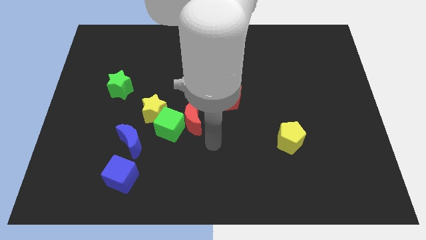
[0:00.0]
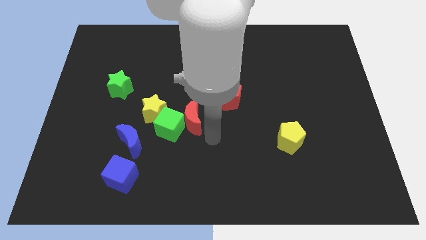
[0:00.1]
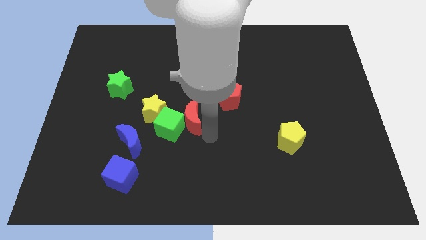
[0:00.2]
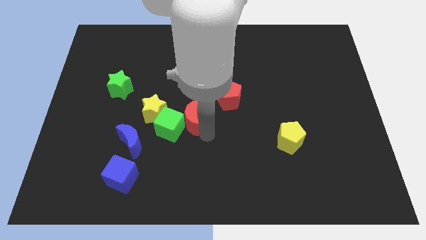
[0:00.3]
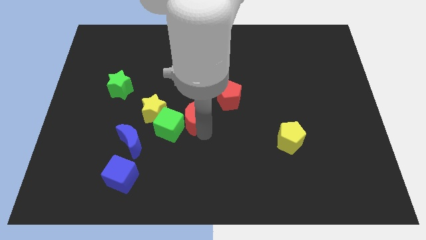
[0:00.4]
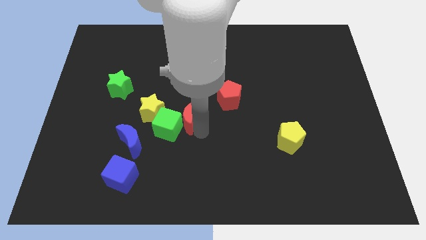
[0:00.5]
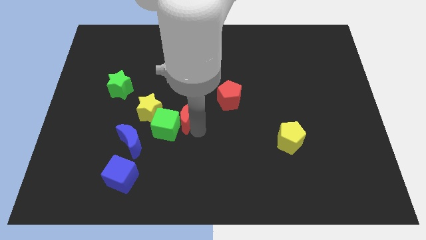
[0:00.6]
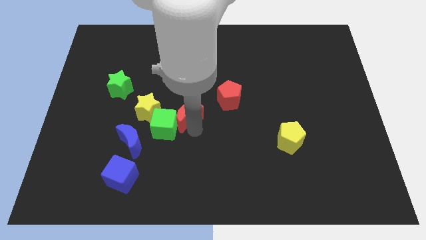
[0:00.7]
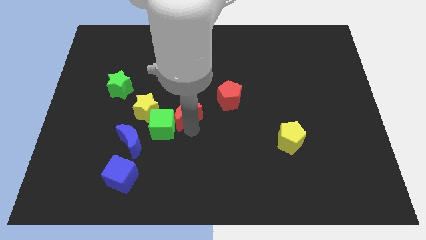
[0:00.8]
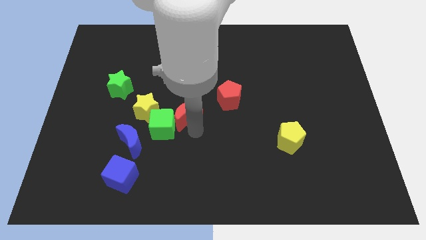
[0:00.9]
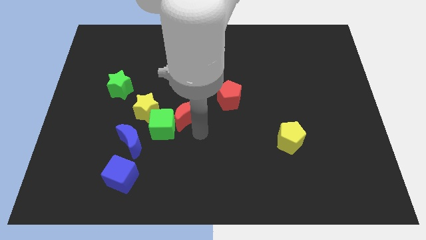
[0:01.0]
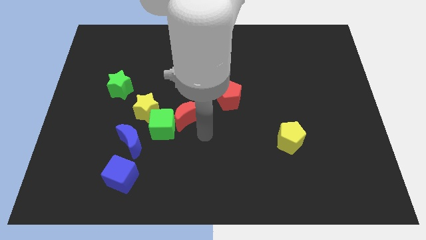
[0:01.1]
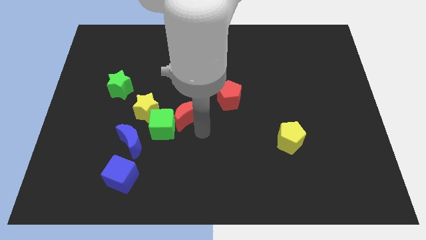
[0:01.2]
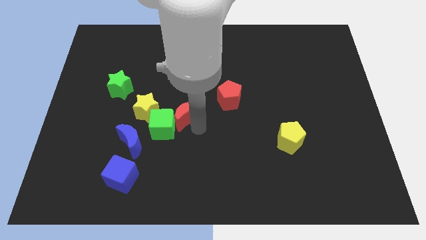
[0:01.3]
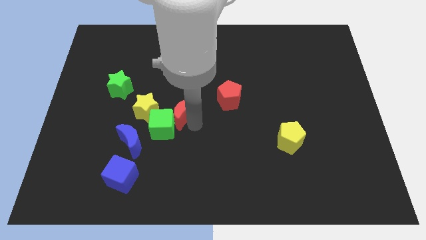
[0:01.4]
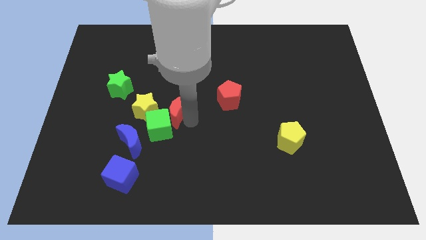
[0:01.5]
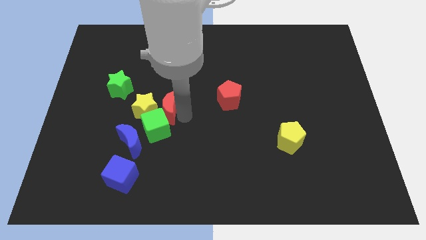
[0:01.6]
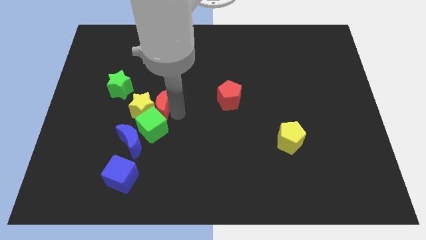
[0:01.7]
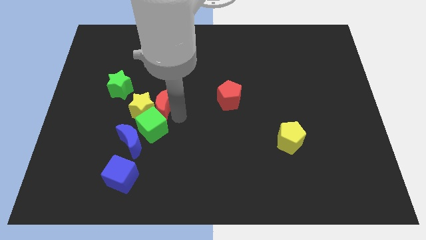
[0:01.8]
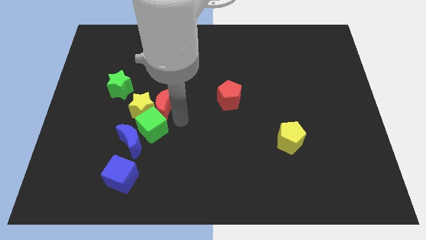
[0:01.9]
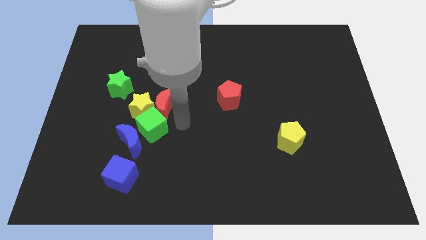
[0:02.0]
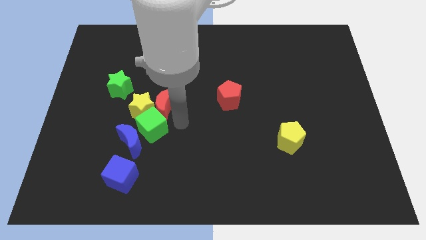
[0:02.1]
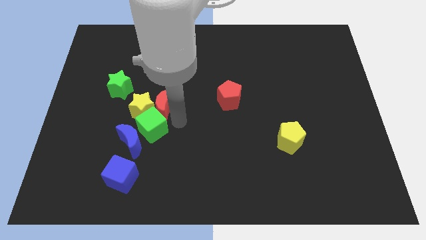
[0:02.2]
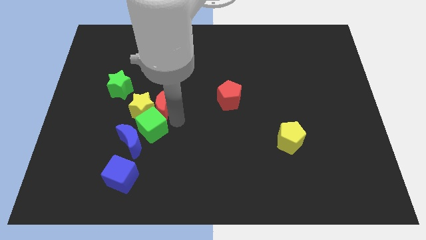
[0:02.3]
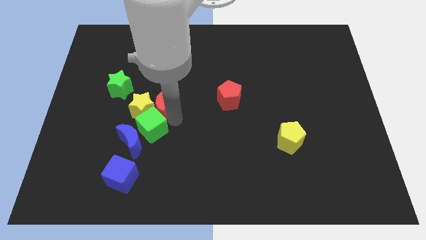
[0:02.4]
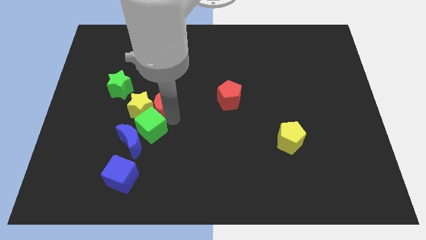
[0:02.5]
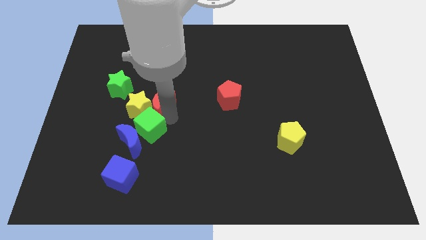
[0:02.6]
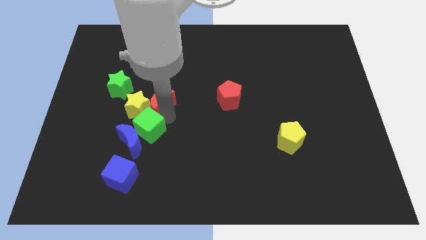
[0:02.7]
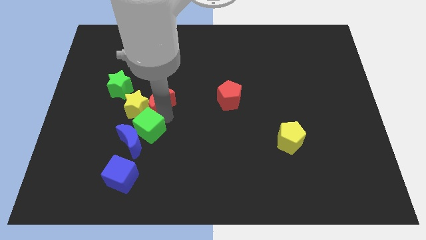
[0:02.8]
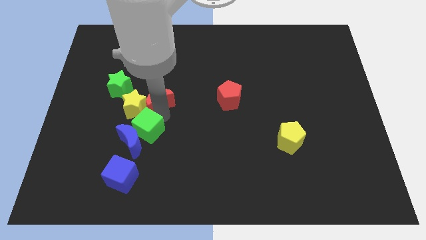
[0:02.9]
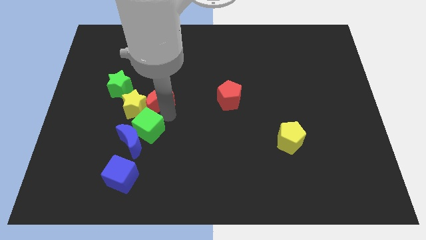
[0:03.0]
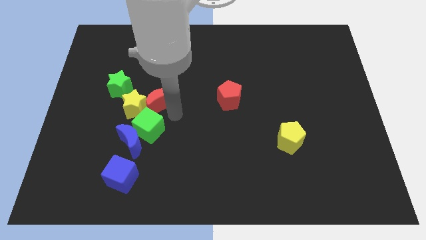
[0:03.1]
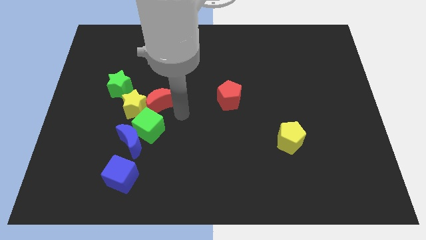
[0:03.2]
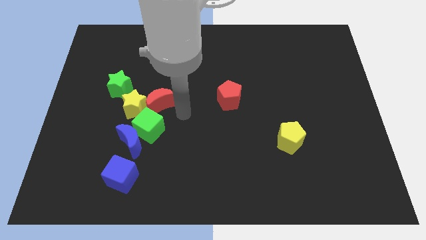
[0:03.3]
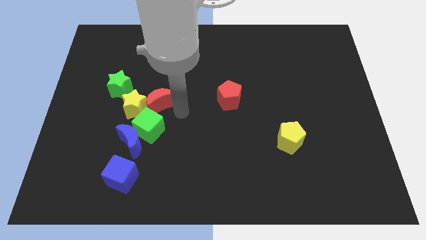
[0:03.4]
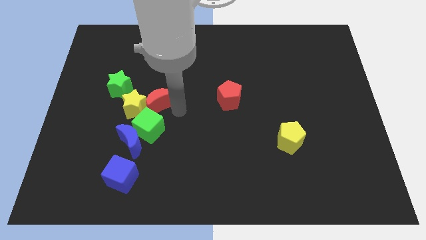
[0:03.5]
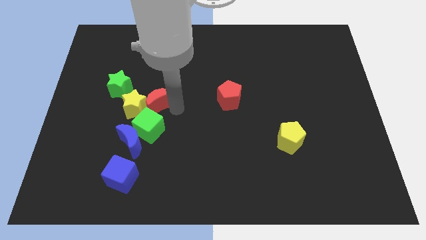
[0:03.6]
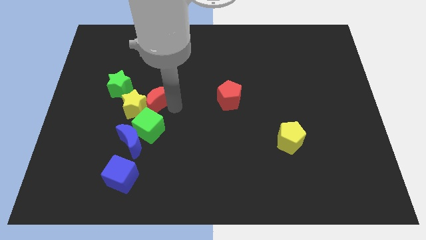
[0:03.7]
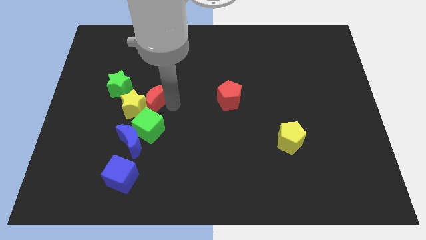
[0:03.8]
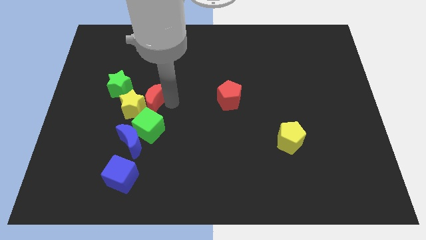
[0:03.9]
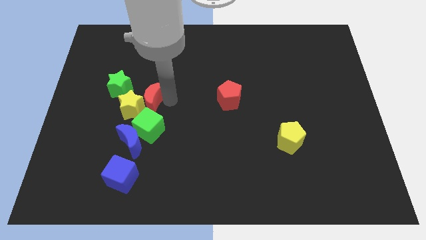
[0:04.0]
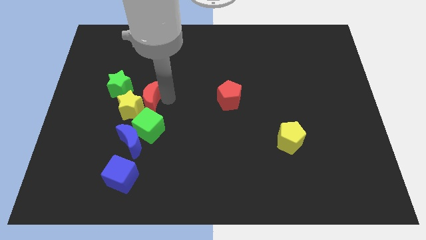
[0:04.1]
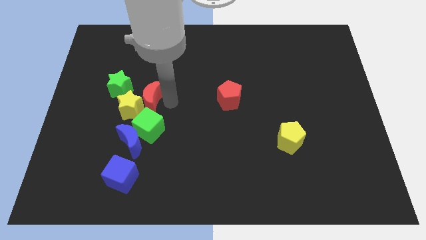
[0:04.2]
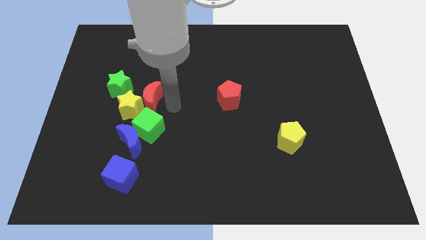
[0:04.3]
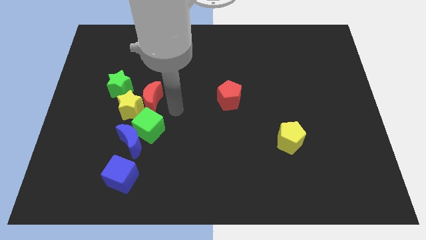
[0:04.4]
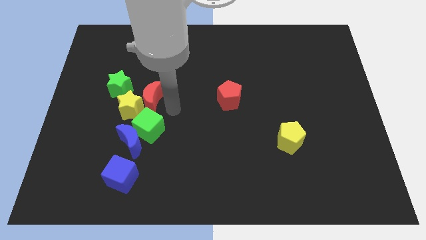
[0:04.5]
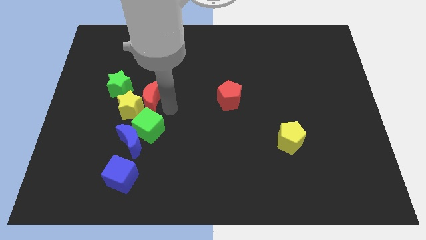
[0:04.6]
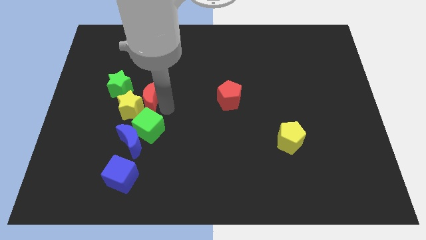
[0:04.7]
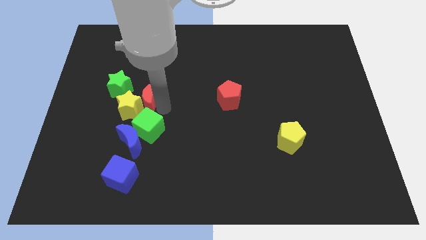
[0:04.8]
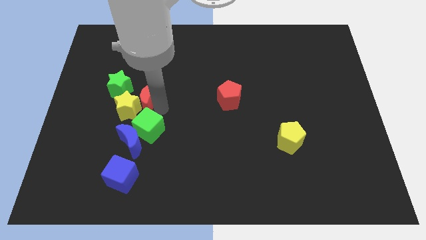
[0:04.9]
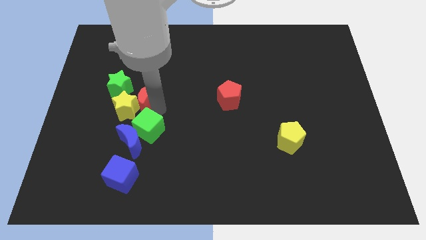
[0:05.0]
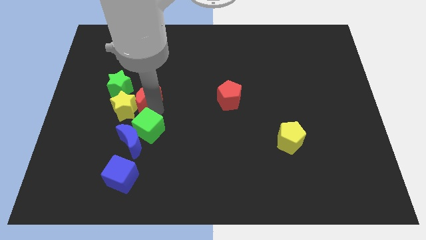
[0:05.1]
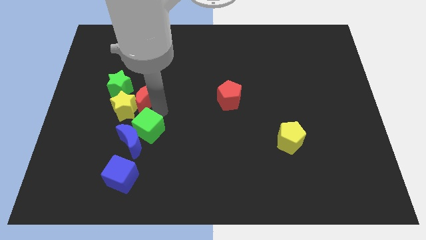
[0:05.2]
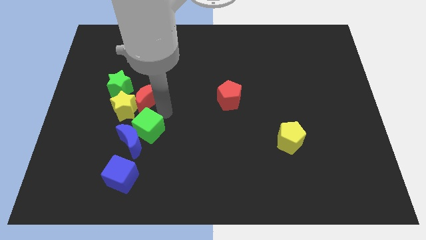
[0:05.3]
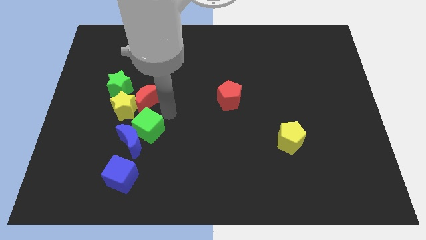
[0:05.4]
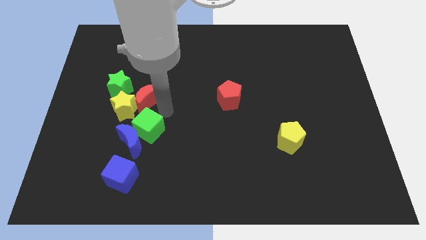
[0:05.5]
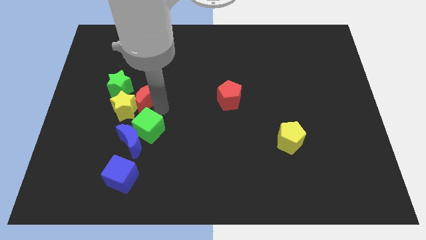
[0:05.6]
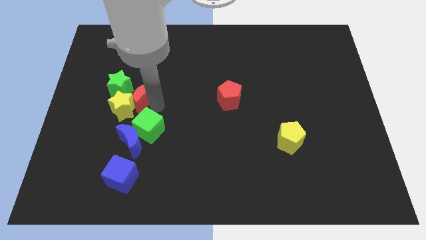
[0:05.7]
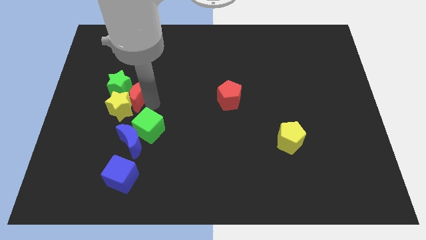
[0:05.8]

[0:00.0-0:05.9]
put the red moon close to the green star

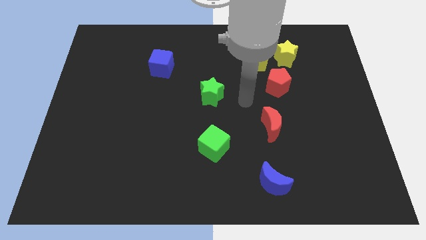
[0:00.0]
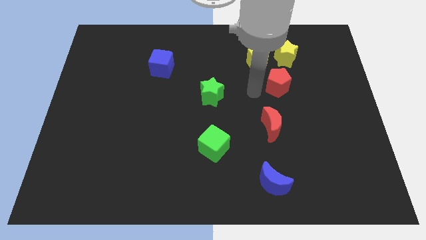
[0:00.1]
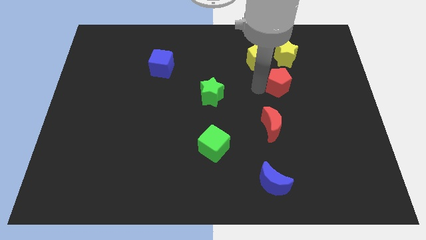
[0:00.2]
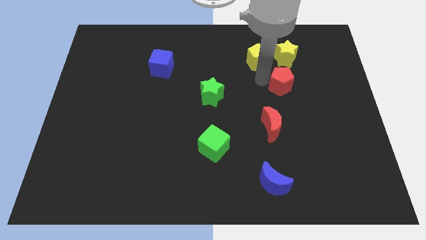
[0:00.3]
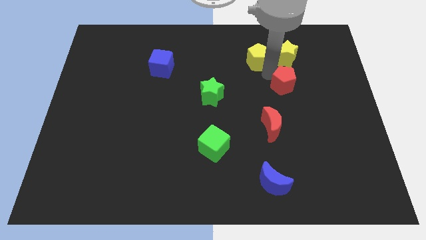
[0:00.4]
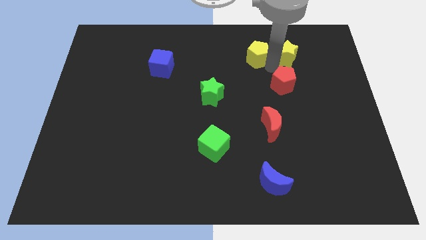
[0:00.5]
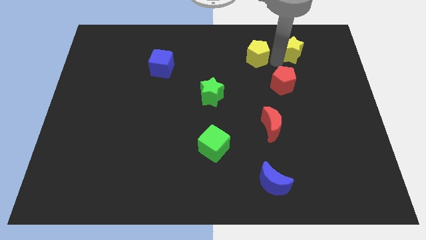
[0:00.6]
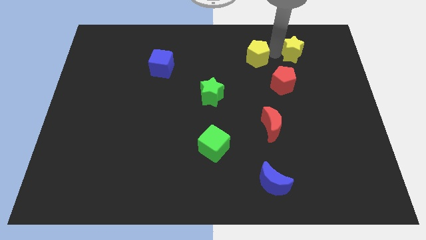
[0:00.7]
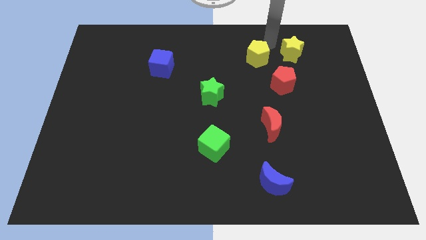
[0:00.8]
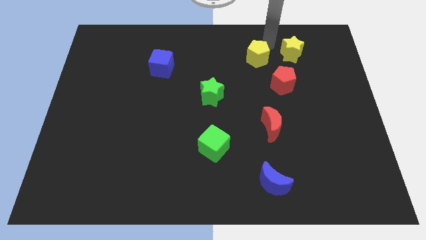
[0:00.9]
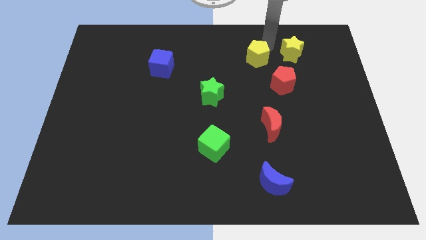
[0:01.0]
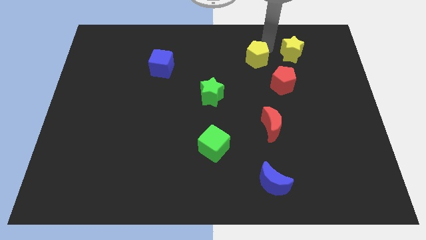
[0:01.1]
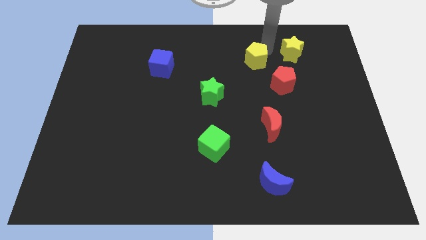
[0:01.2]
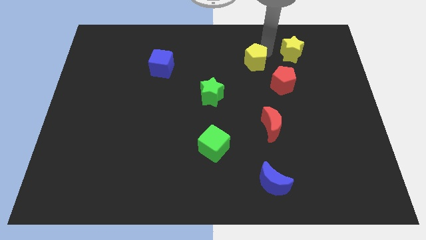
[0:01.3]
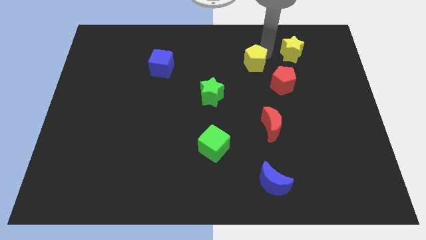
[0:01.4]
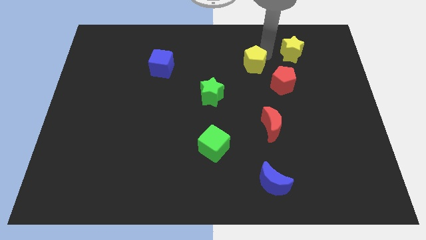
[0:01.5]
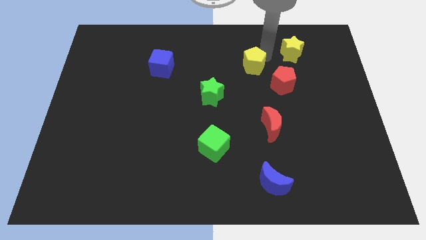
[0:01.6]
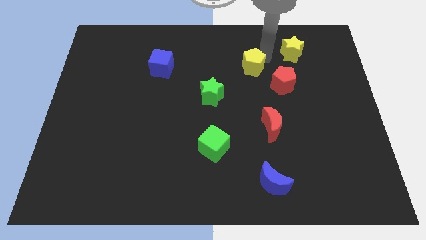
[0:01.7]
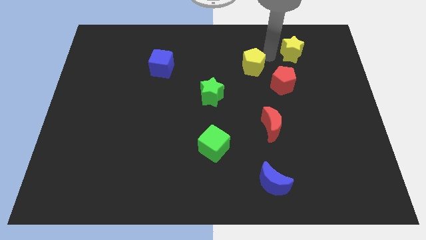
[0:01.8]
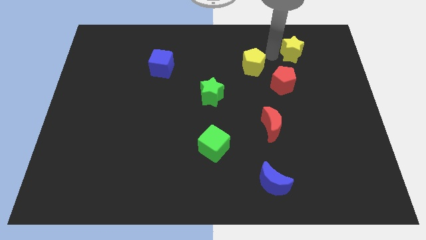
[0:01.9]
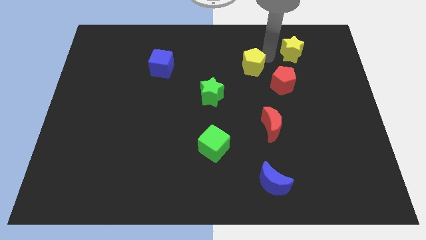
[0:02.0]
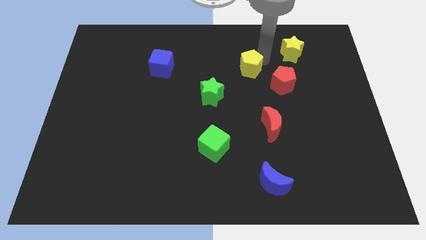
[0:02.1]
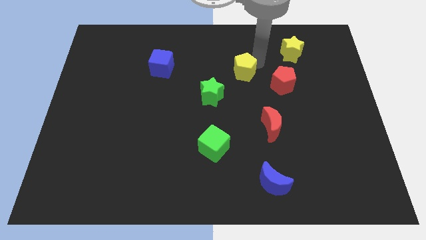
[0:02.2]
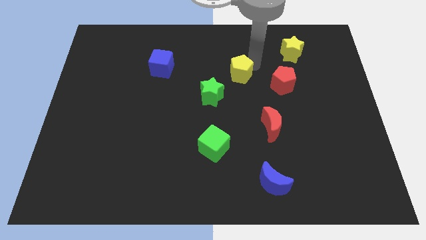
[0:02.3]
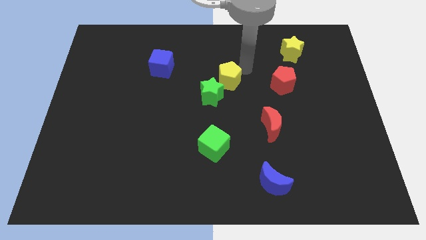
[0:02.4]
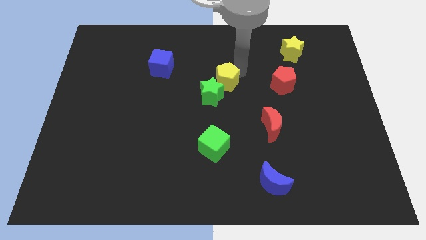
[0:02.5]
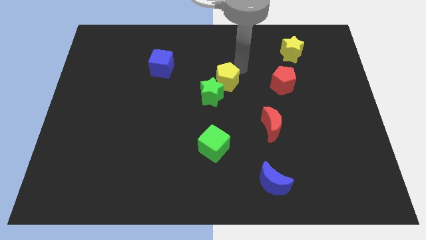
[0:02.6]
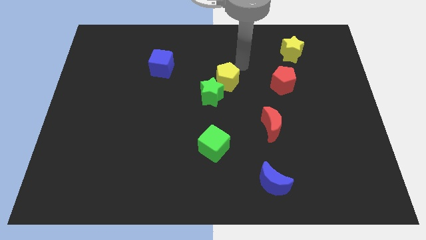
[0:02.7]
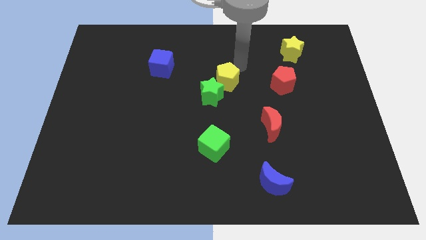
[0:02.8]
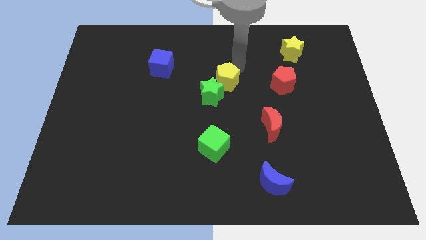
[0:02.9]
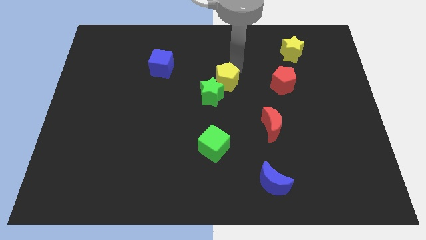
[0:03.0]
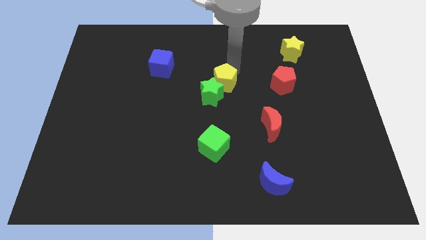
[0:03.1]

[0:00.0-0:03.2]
slide the yellow pentagon towards the green star
